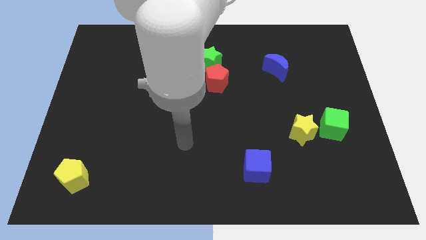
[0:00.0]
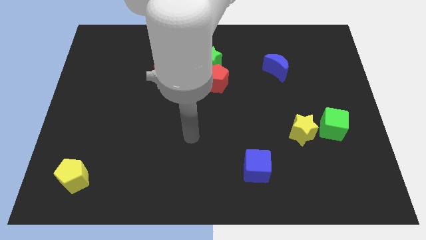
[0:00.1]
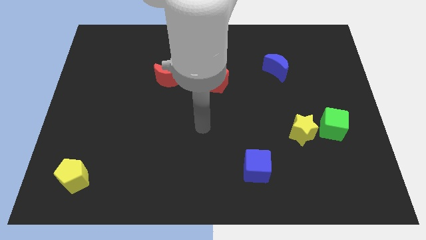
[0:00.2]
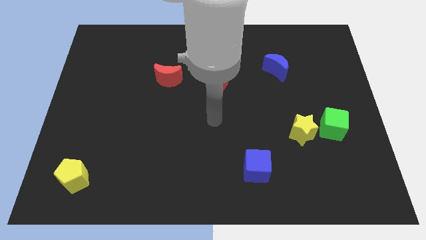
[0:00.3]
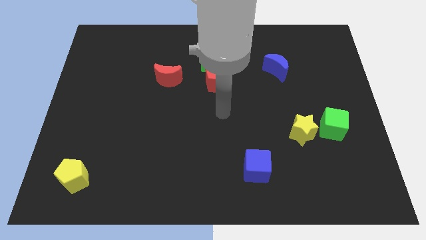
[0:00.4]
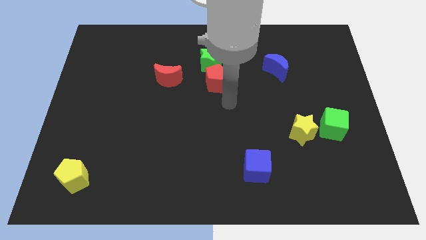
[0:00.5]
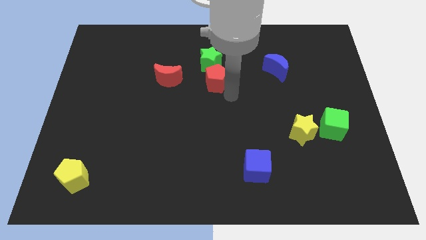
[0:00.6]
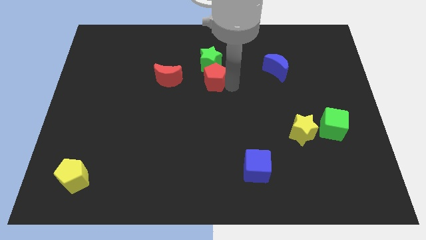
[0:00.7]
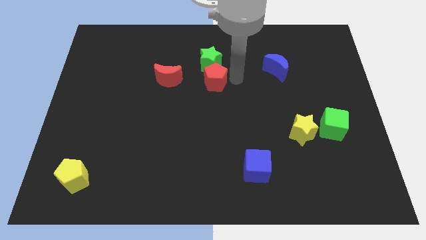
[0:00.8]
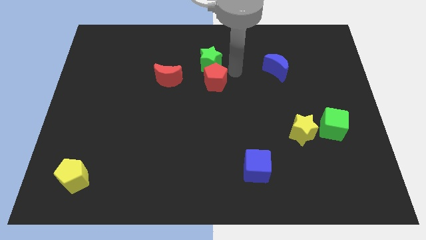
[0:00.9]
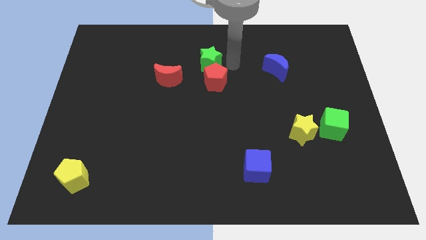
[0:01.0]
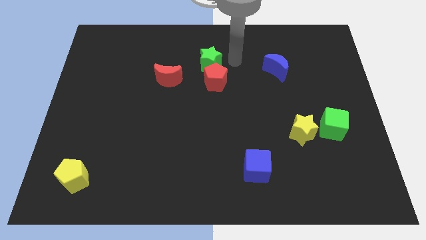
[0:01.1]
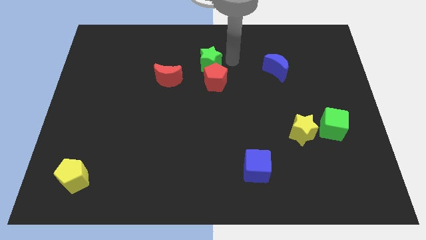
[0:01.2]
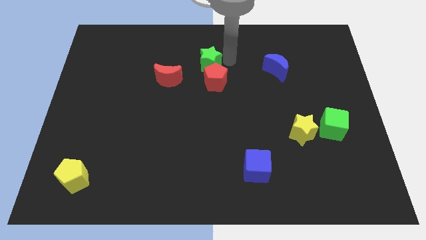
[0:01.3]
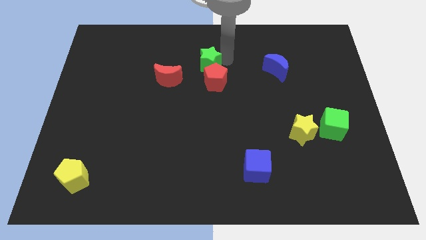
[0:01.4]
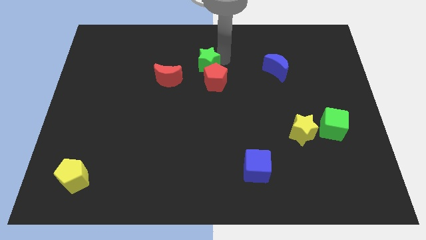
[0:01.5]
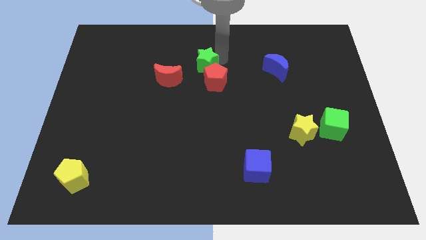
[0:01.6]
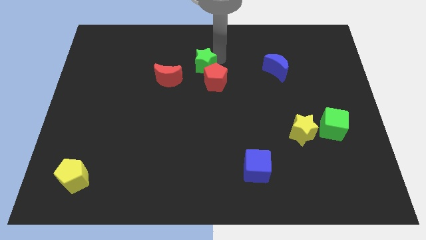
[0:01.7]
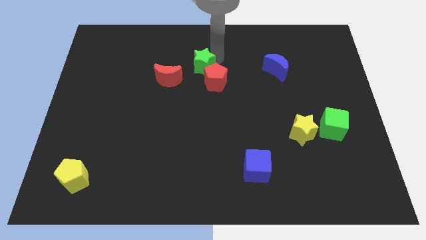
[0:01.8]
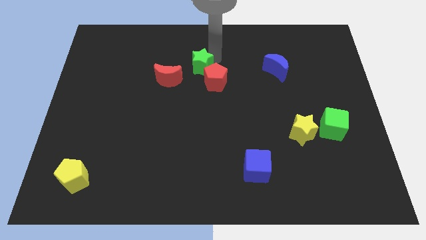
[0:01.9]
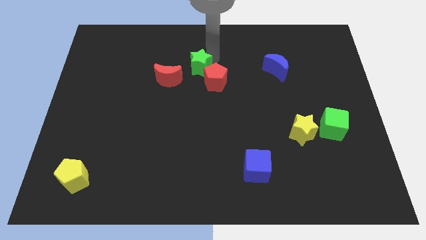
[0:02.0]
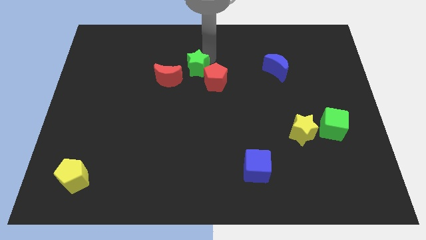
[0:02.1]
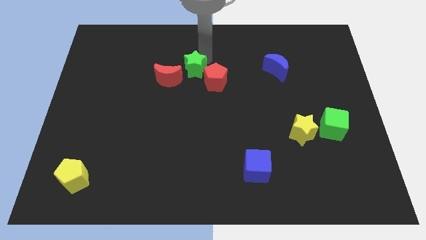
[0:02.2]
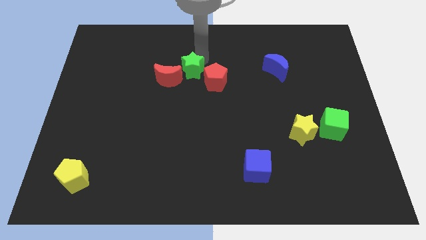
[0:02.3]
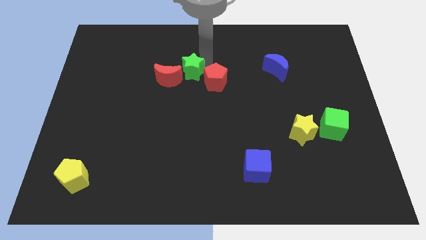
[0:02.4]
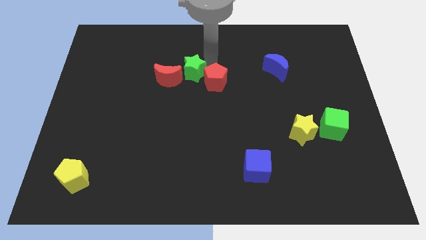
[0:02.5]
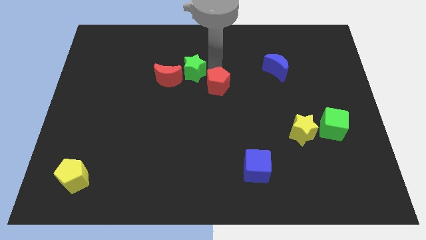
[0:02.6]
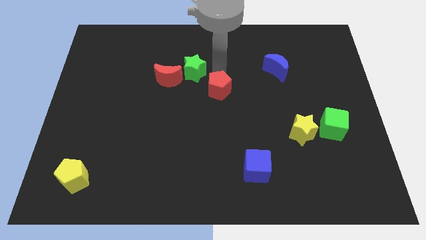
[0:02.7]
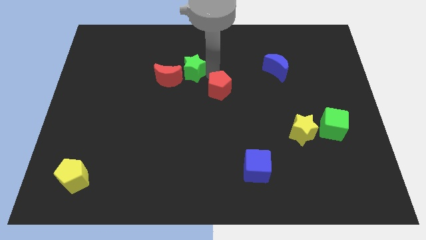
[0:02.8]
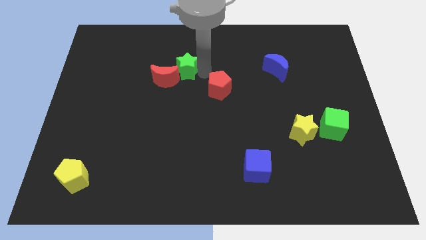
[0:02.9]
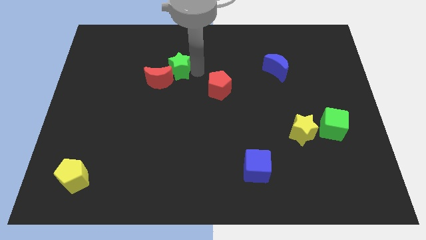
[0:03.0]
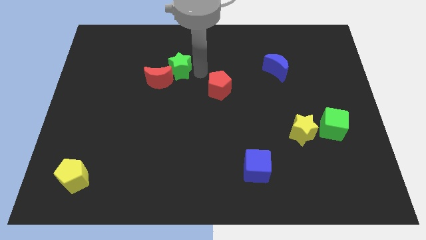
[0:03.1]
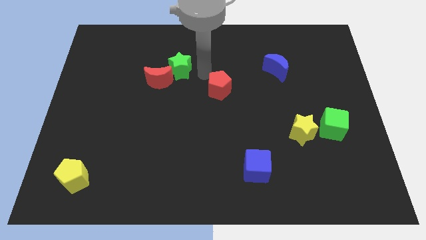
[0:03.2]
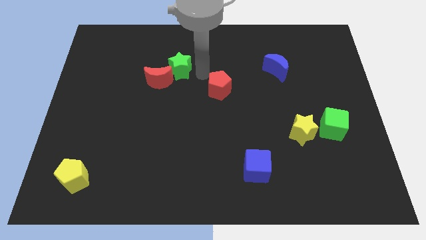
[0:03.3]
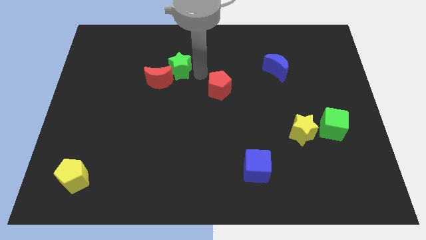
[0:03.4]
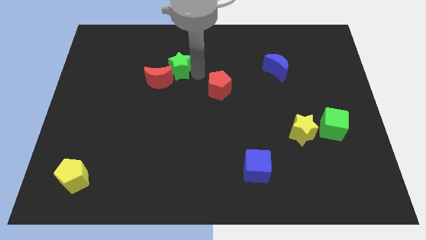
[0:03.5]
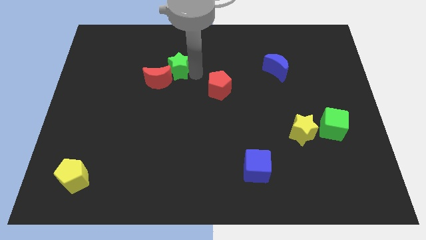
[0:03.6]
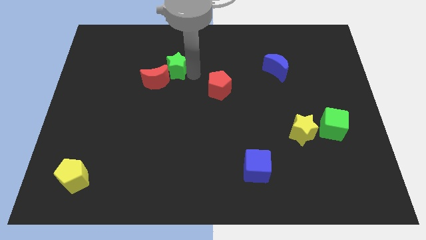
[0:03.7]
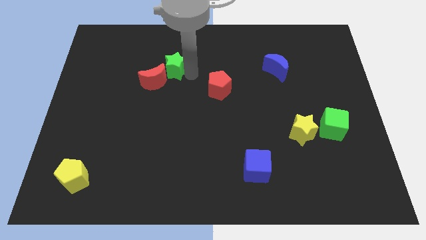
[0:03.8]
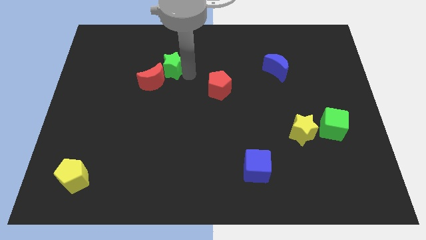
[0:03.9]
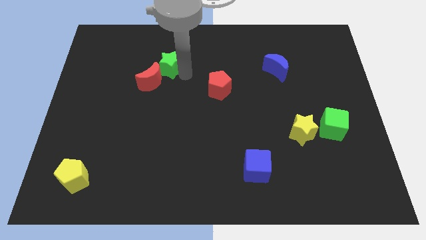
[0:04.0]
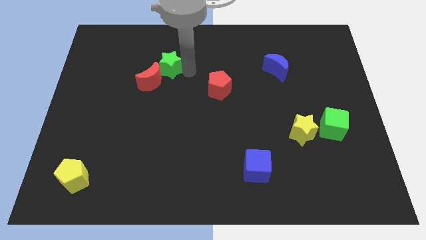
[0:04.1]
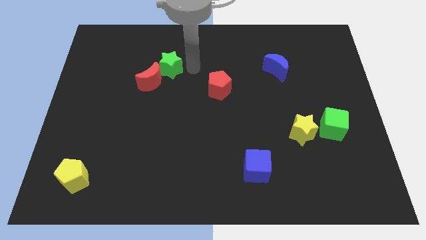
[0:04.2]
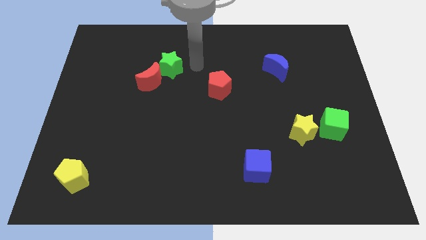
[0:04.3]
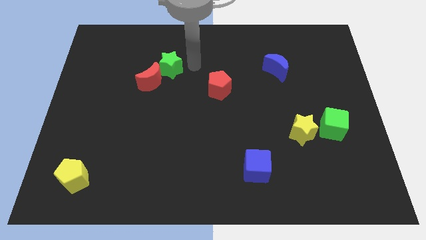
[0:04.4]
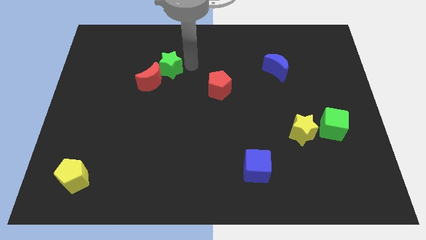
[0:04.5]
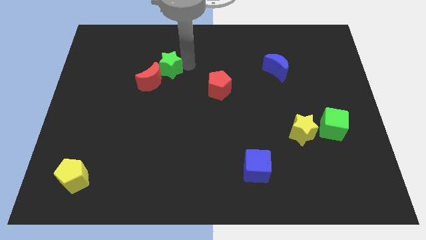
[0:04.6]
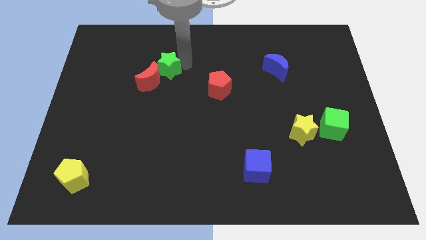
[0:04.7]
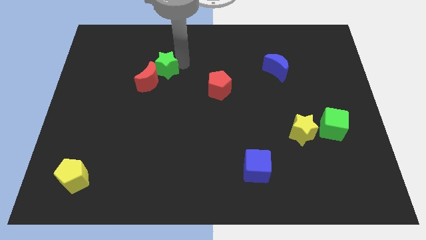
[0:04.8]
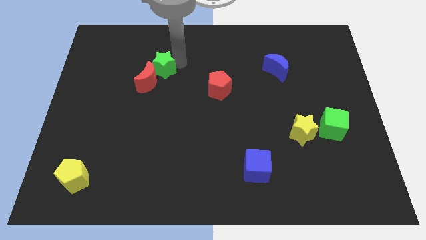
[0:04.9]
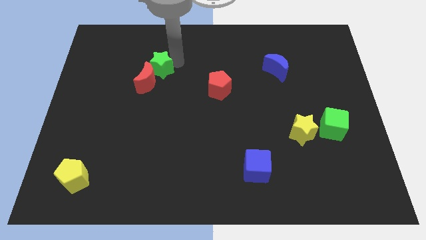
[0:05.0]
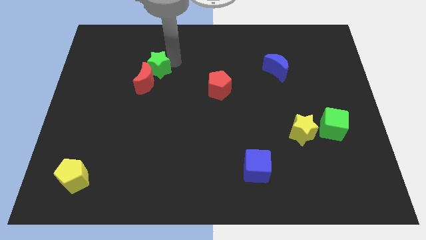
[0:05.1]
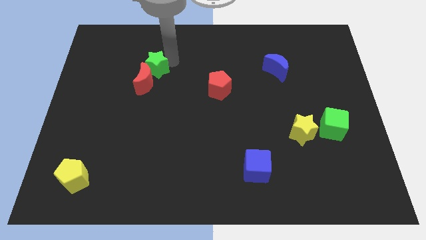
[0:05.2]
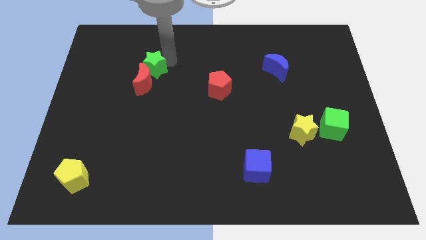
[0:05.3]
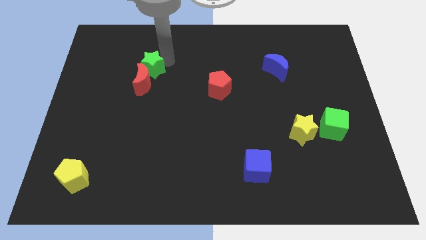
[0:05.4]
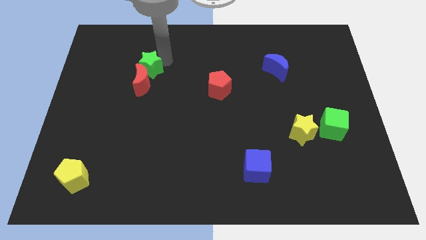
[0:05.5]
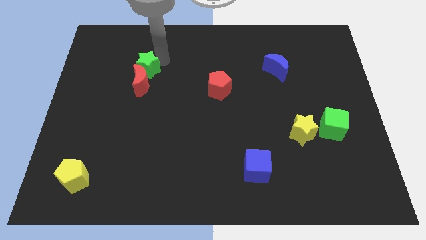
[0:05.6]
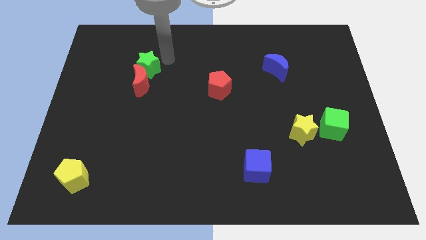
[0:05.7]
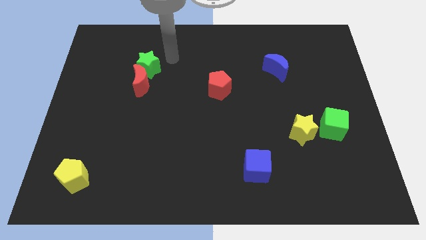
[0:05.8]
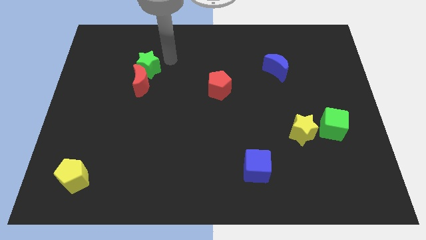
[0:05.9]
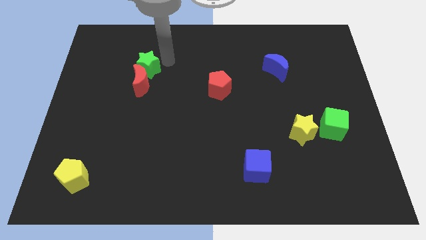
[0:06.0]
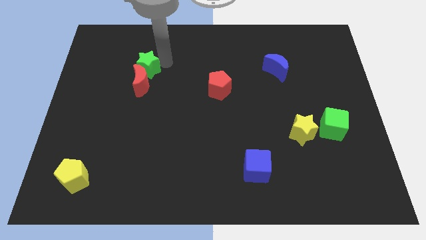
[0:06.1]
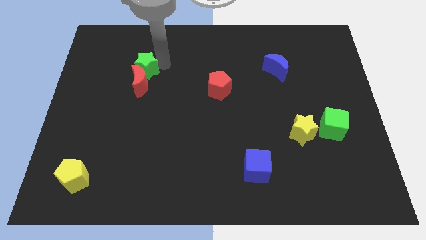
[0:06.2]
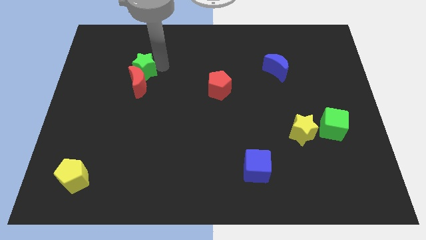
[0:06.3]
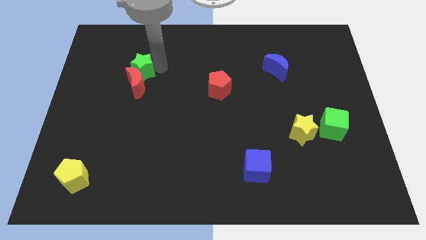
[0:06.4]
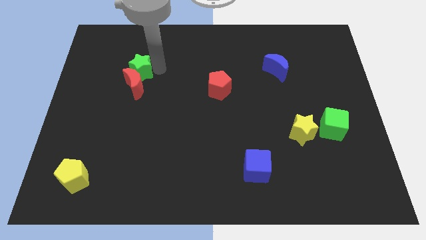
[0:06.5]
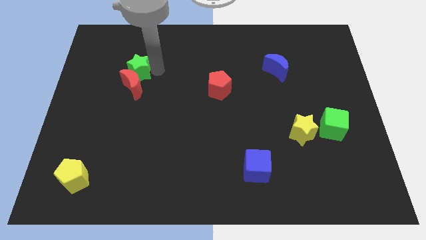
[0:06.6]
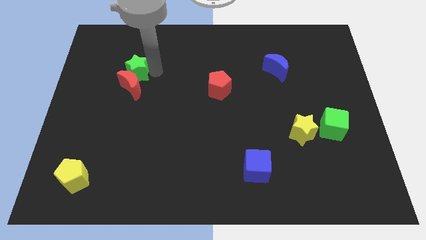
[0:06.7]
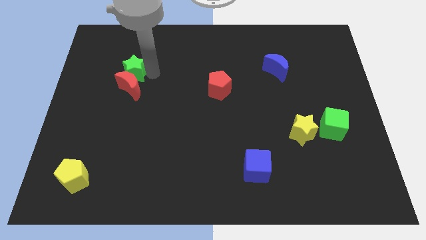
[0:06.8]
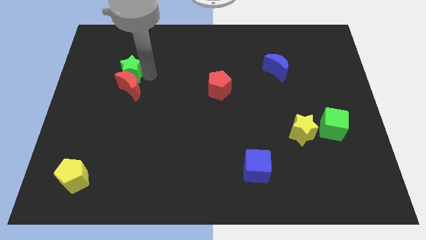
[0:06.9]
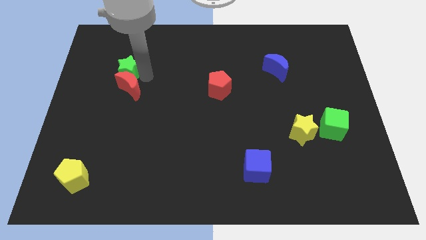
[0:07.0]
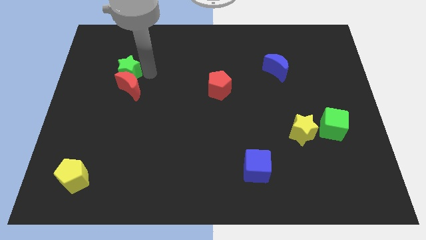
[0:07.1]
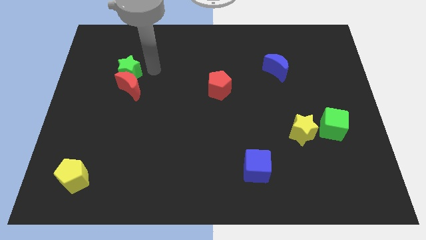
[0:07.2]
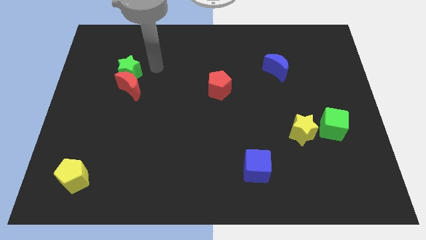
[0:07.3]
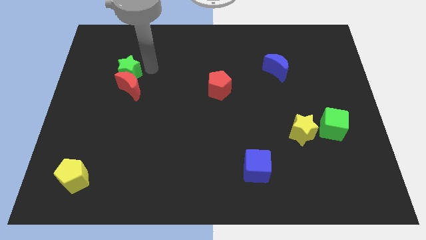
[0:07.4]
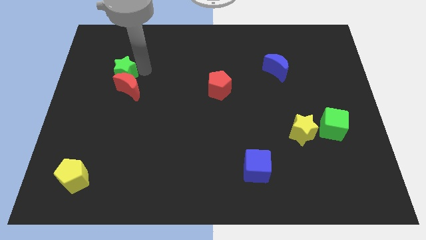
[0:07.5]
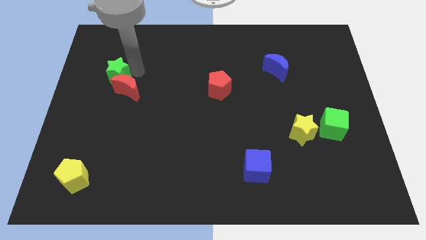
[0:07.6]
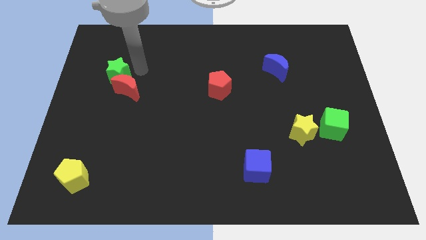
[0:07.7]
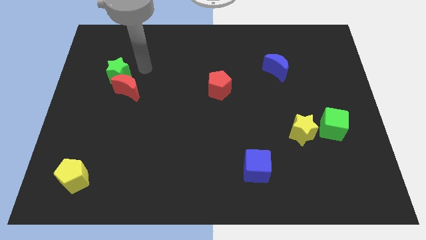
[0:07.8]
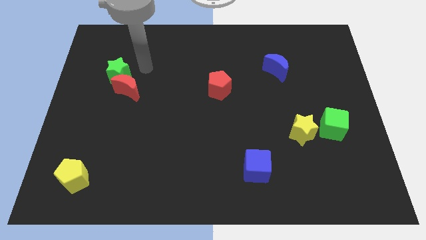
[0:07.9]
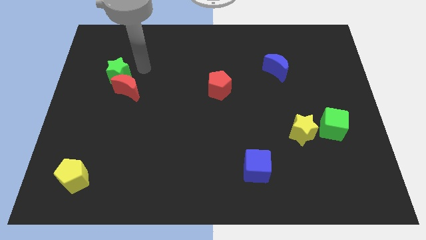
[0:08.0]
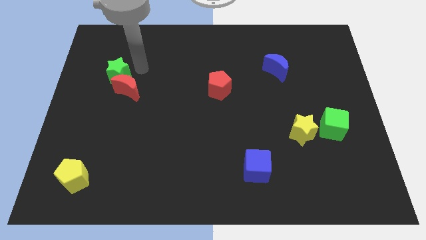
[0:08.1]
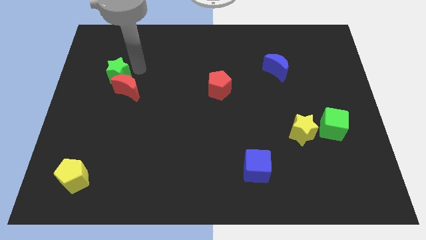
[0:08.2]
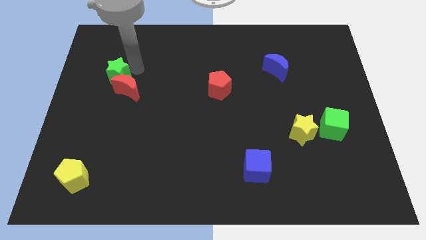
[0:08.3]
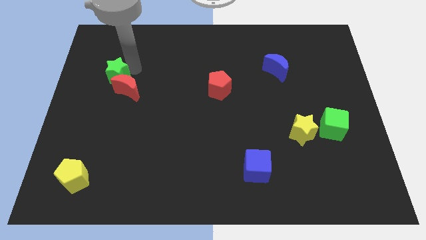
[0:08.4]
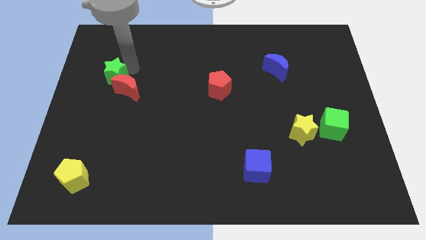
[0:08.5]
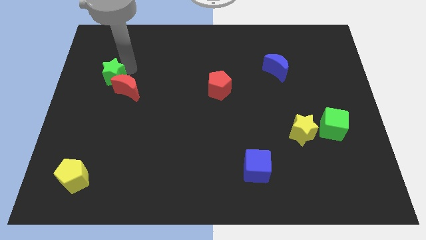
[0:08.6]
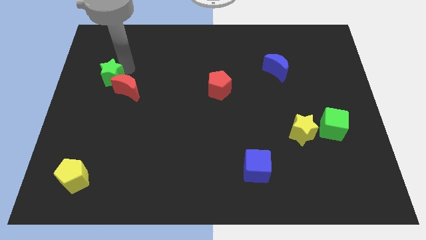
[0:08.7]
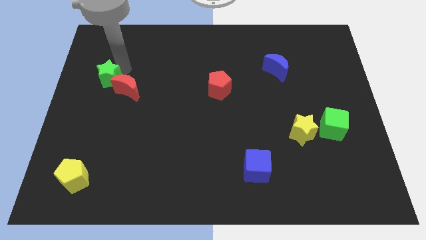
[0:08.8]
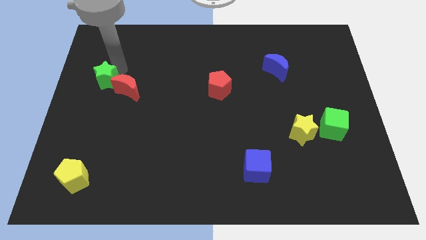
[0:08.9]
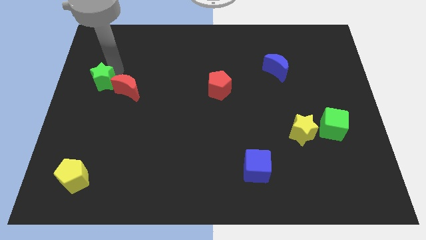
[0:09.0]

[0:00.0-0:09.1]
move the green star to the left side
